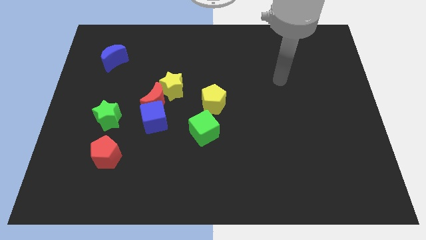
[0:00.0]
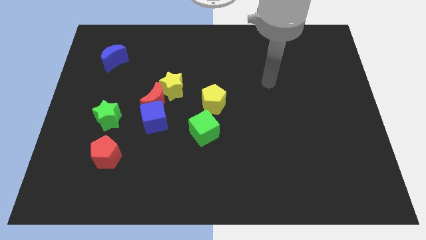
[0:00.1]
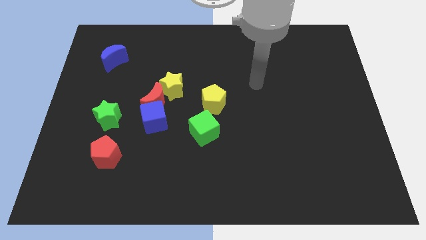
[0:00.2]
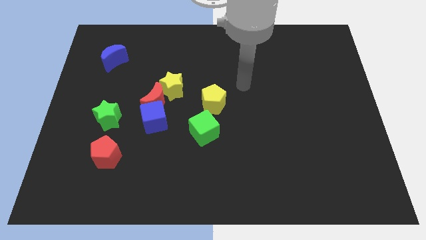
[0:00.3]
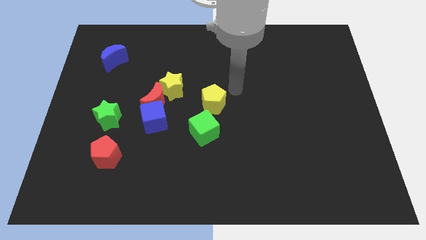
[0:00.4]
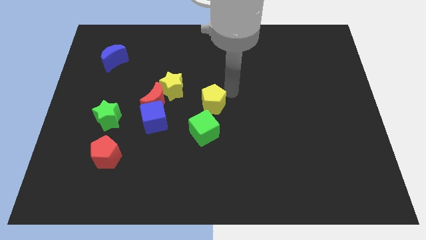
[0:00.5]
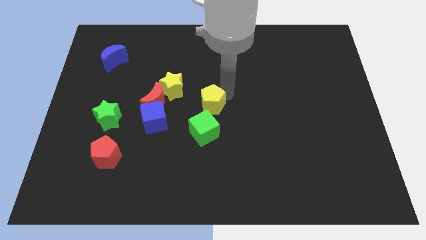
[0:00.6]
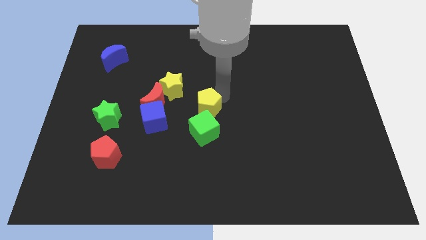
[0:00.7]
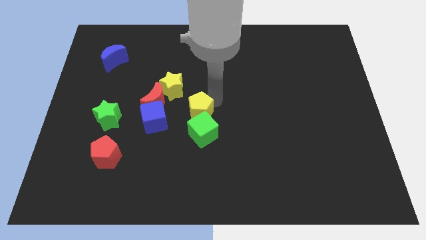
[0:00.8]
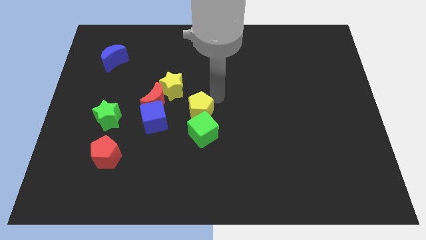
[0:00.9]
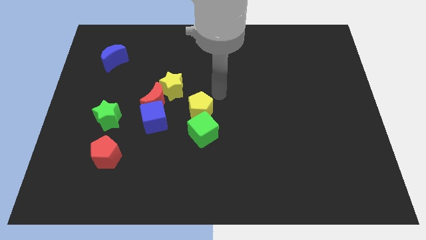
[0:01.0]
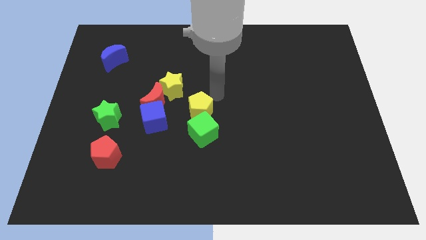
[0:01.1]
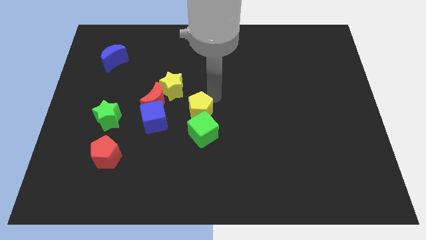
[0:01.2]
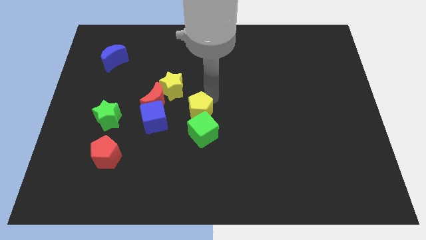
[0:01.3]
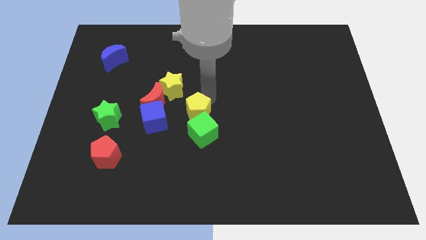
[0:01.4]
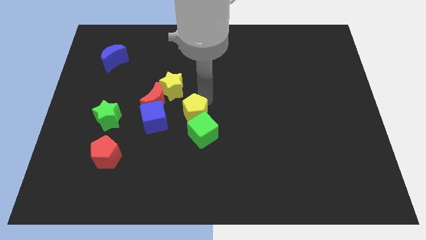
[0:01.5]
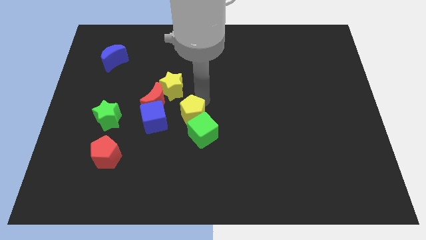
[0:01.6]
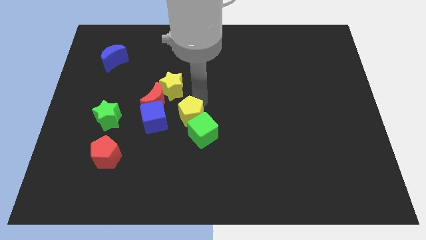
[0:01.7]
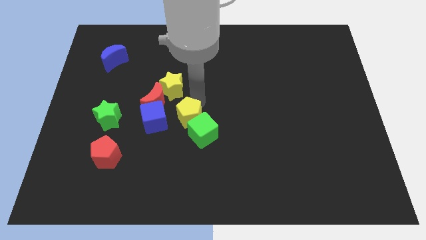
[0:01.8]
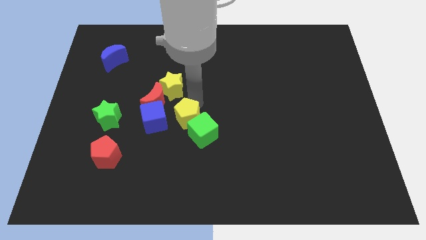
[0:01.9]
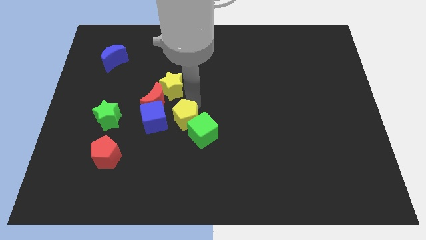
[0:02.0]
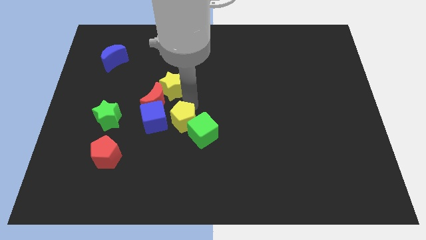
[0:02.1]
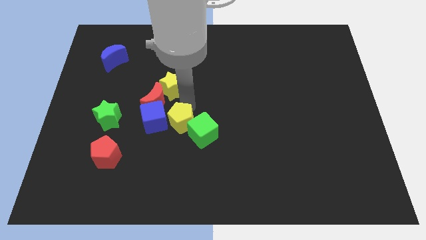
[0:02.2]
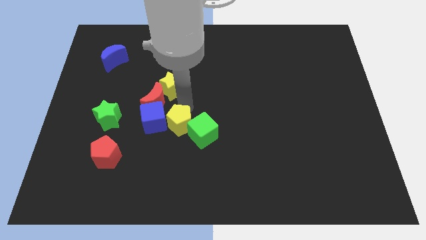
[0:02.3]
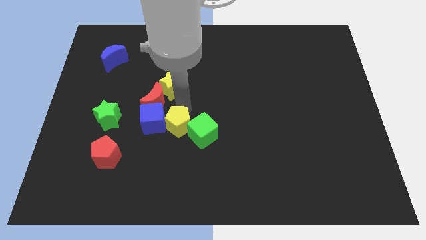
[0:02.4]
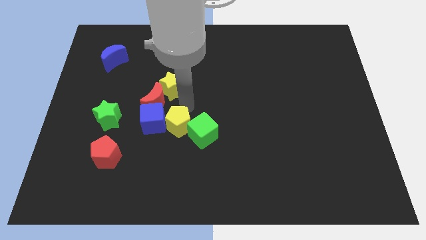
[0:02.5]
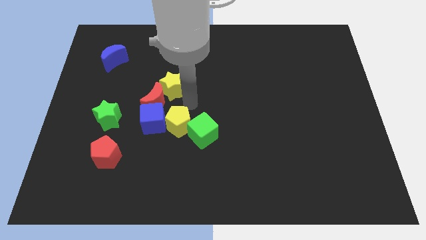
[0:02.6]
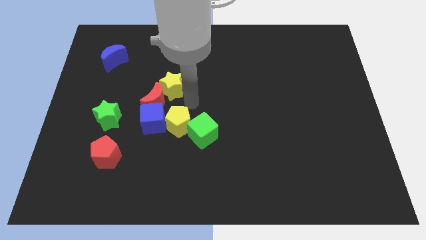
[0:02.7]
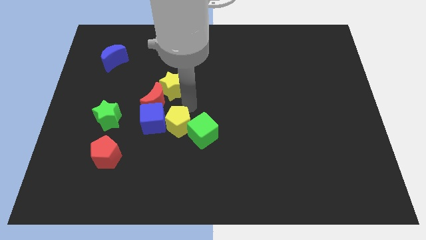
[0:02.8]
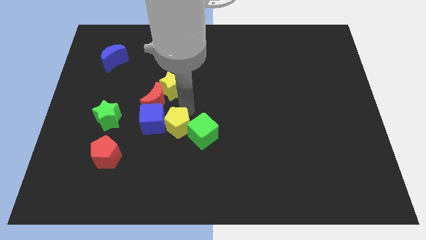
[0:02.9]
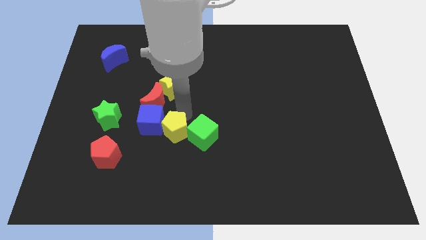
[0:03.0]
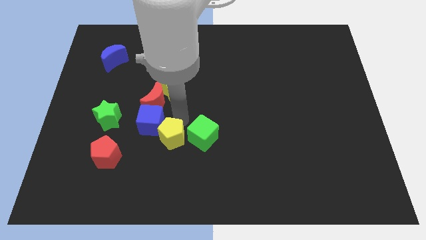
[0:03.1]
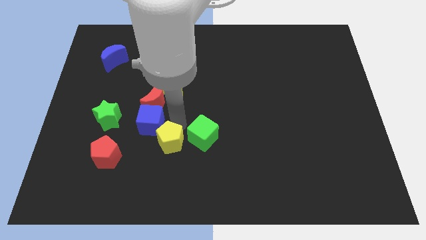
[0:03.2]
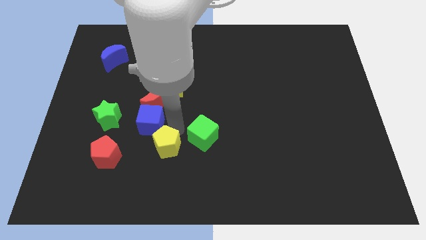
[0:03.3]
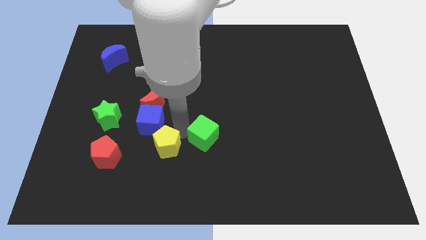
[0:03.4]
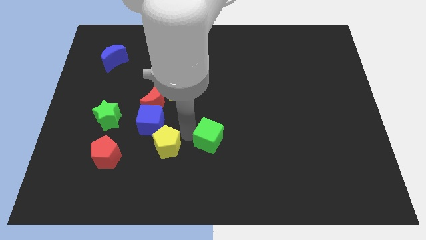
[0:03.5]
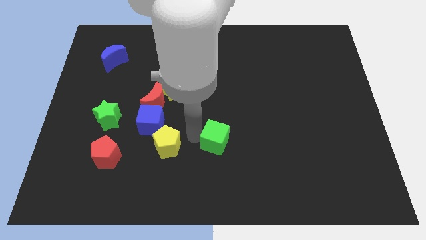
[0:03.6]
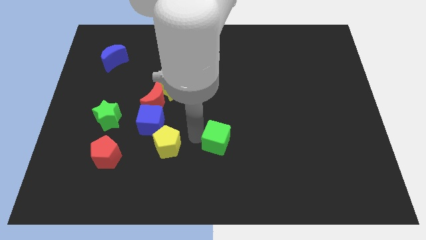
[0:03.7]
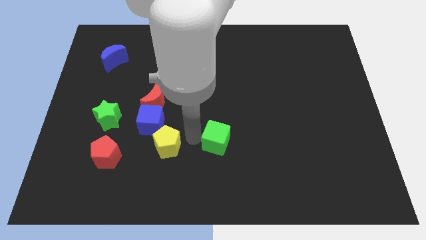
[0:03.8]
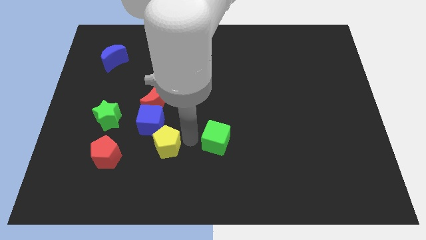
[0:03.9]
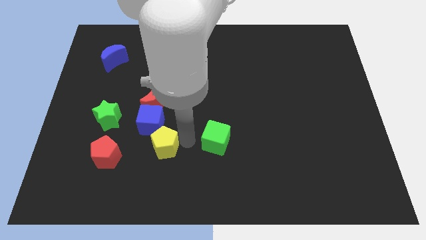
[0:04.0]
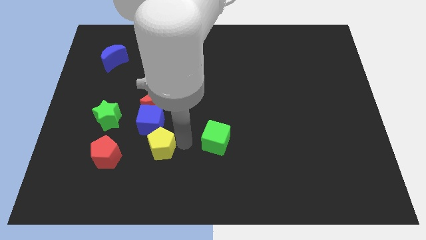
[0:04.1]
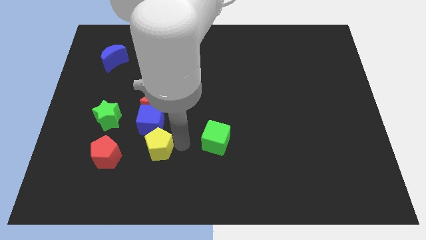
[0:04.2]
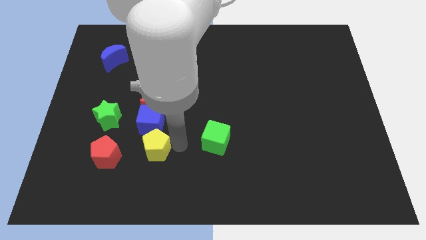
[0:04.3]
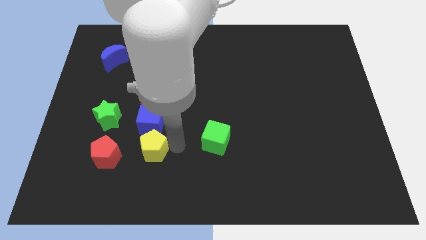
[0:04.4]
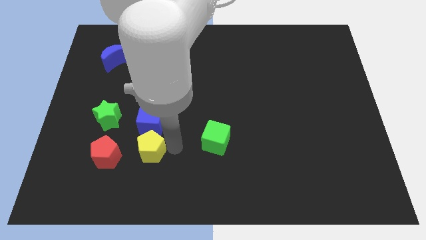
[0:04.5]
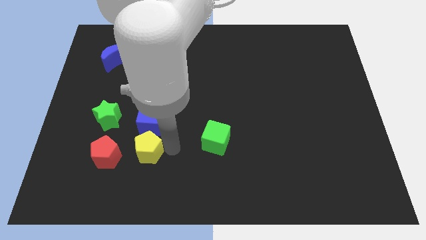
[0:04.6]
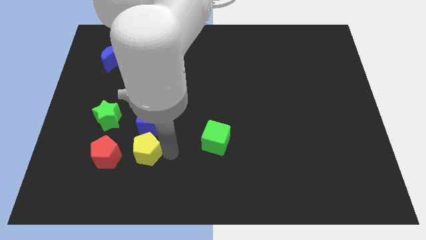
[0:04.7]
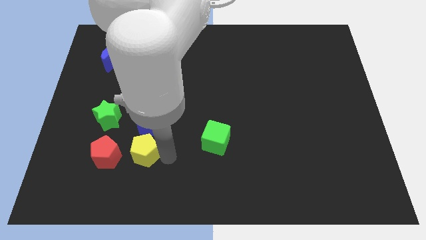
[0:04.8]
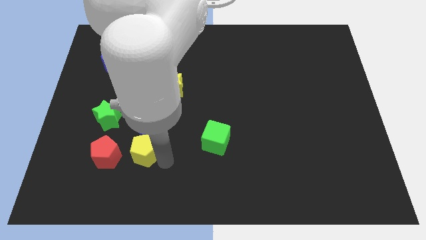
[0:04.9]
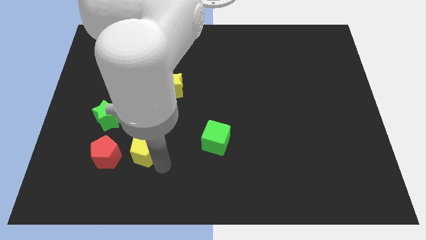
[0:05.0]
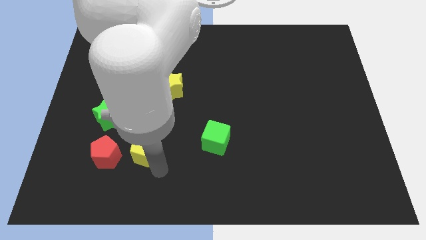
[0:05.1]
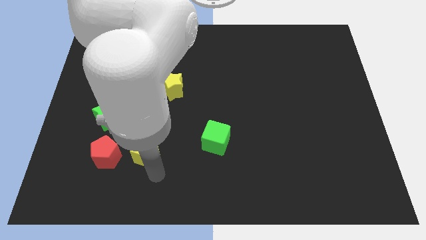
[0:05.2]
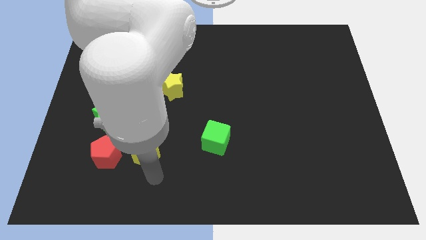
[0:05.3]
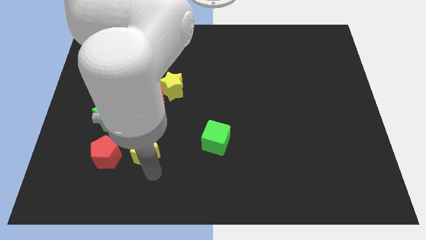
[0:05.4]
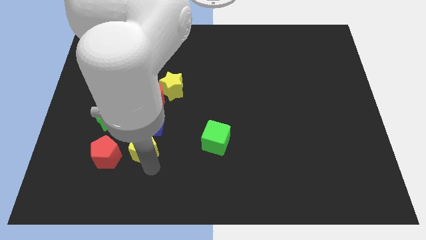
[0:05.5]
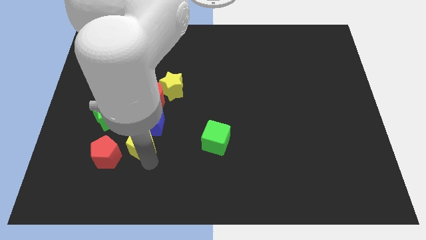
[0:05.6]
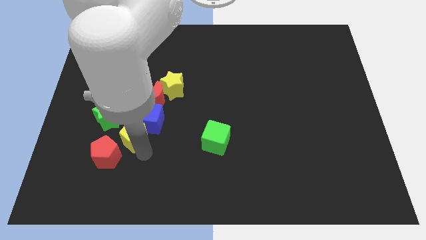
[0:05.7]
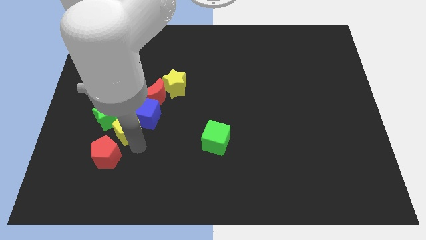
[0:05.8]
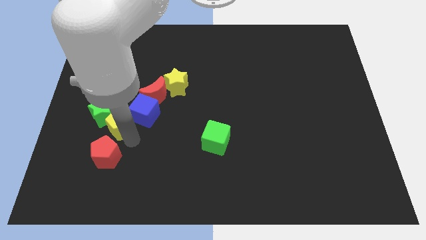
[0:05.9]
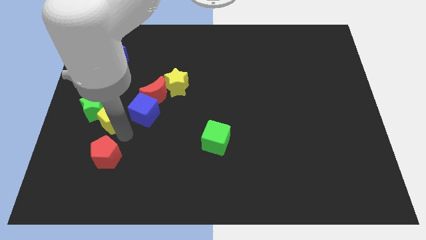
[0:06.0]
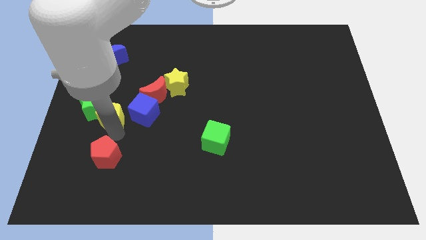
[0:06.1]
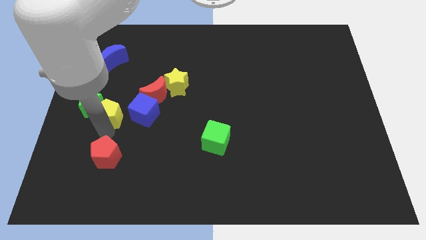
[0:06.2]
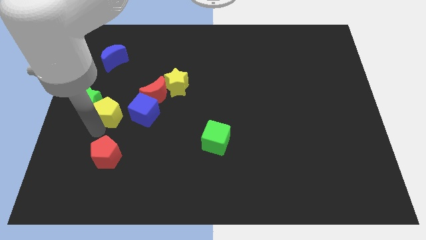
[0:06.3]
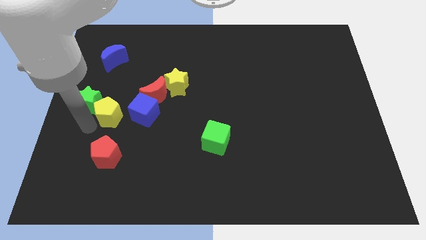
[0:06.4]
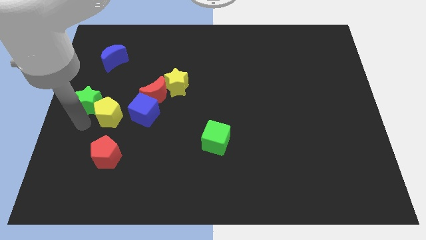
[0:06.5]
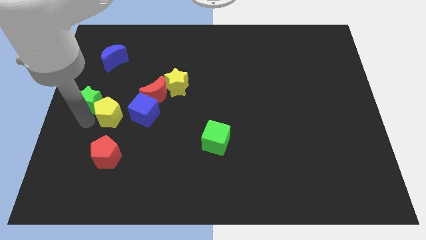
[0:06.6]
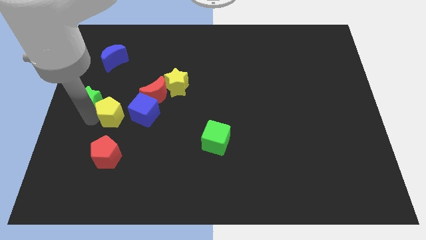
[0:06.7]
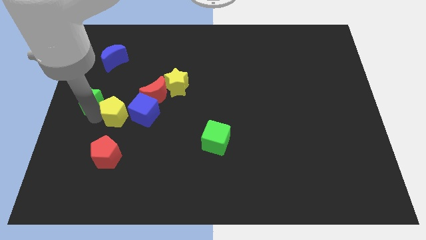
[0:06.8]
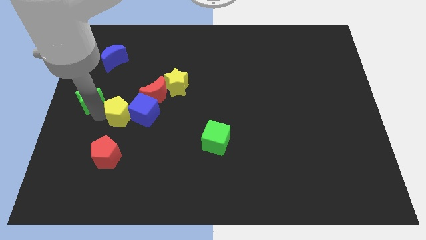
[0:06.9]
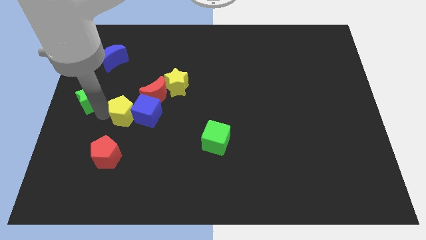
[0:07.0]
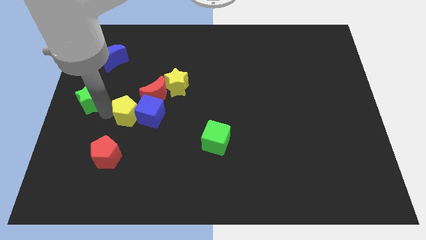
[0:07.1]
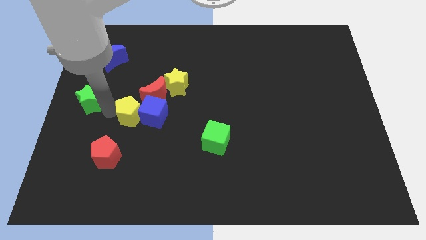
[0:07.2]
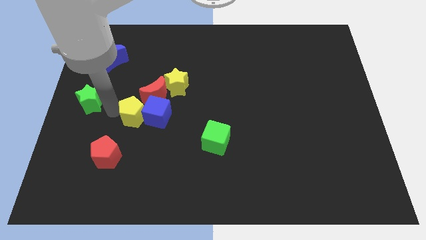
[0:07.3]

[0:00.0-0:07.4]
put the yellow pentagon to the bottom left side of the yellow star

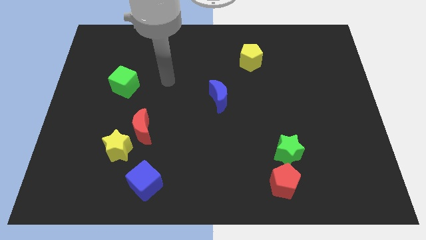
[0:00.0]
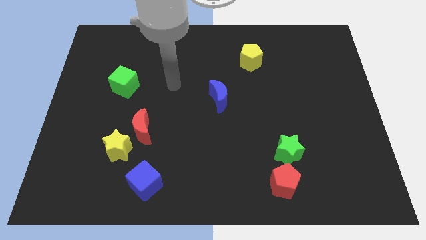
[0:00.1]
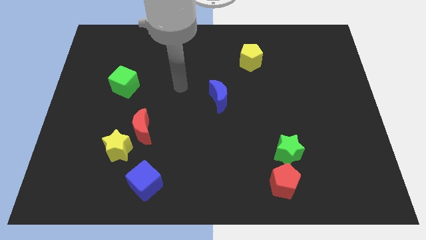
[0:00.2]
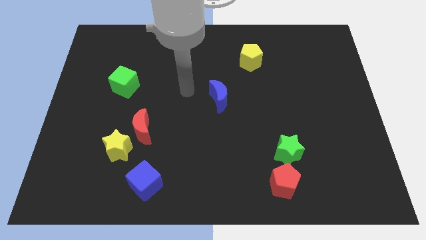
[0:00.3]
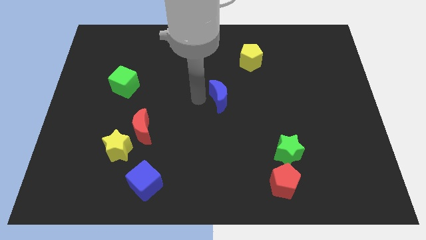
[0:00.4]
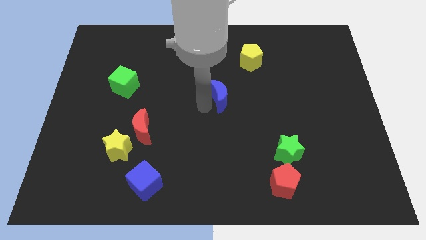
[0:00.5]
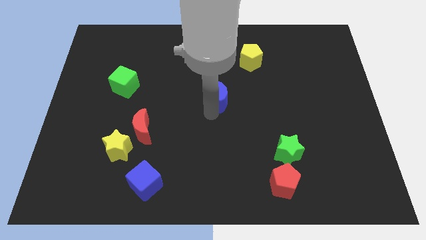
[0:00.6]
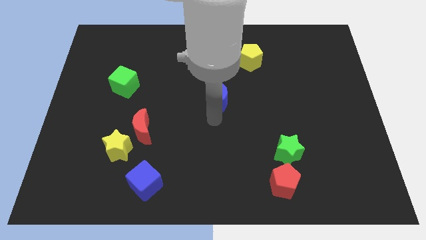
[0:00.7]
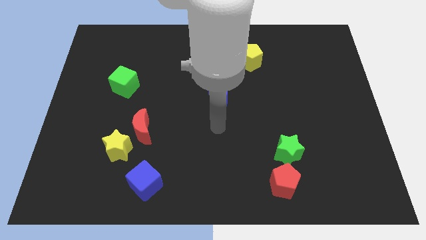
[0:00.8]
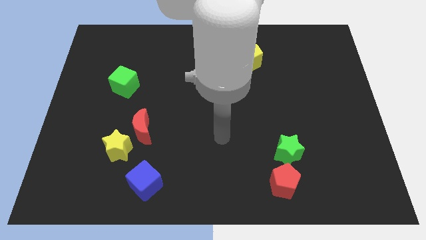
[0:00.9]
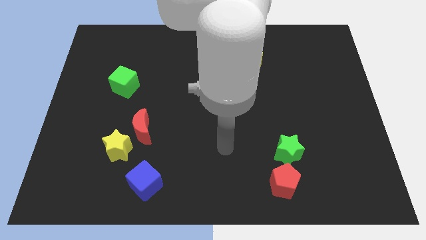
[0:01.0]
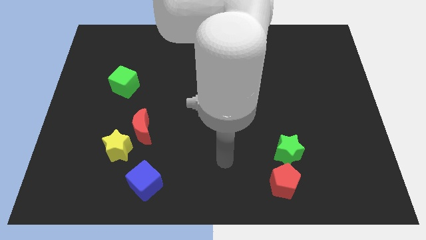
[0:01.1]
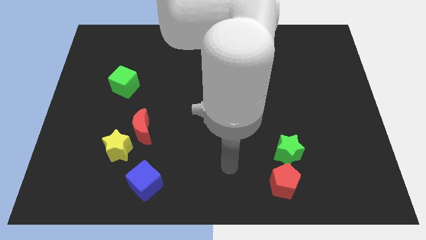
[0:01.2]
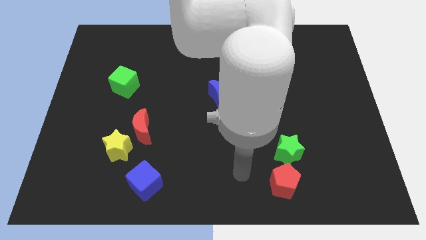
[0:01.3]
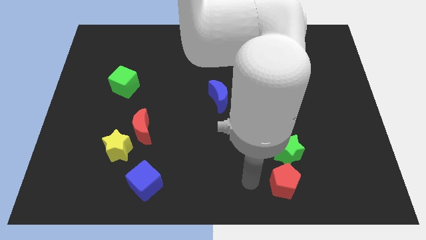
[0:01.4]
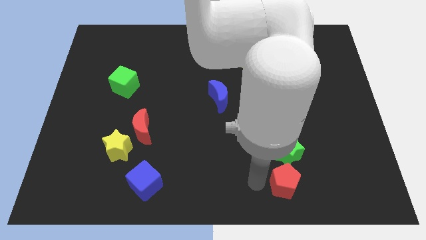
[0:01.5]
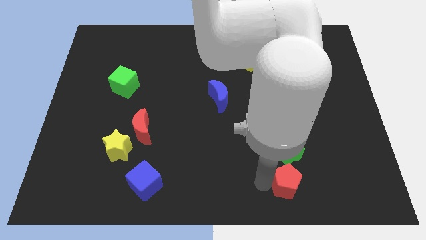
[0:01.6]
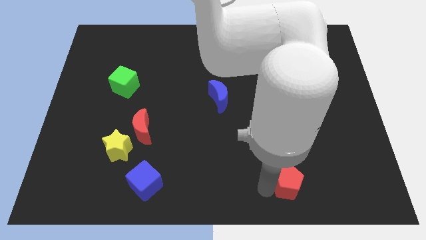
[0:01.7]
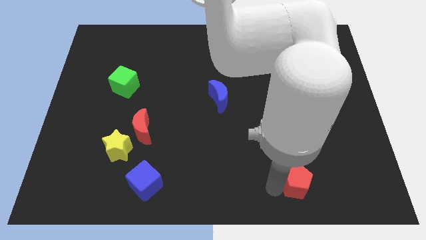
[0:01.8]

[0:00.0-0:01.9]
push the red pentagon diagonally down and to the right of the green star
